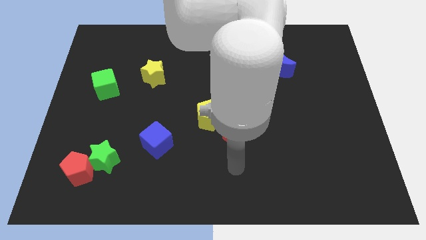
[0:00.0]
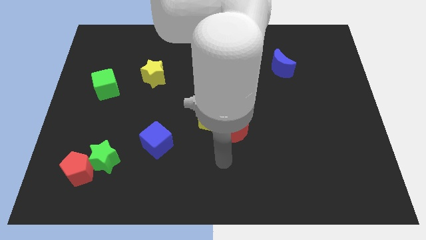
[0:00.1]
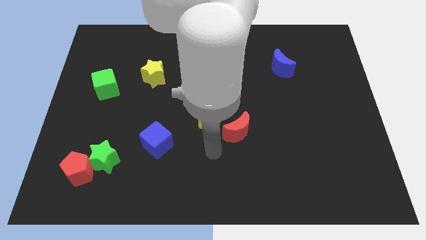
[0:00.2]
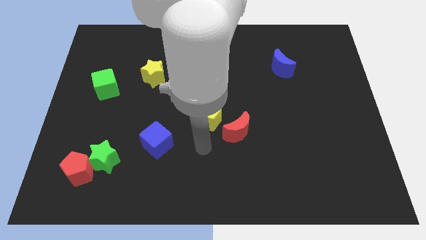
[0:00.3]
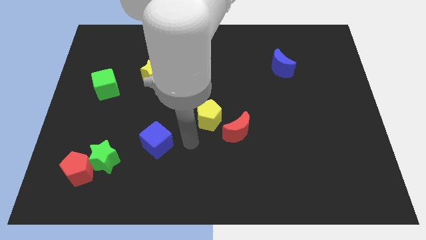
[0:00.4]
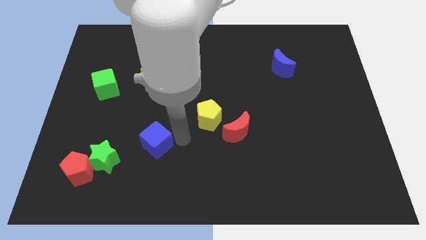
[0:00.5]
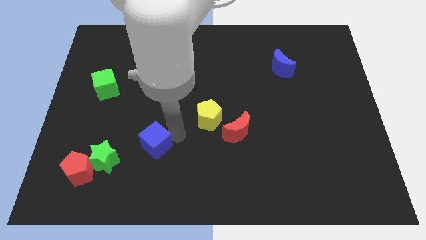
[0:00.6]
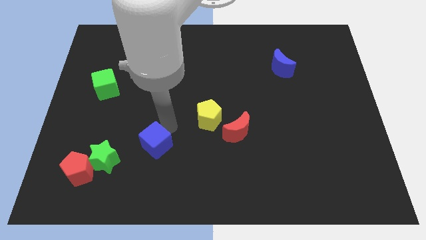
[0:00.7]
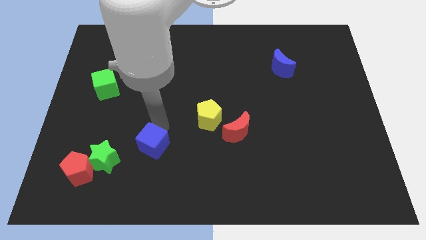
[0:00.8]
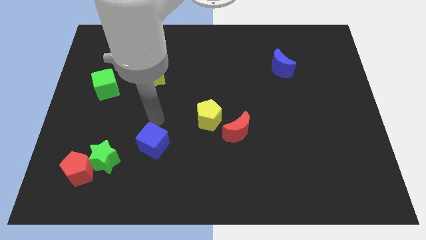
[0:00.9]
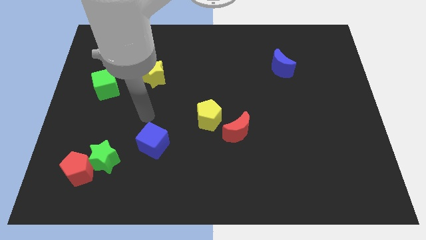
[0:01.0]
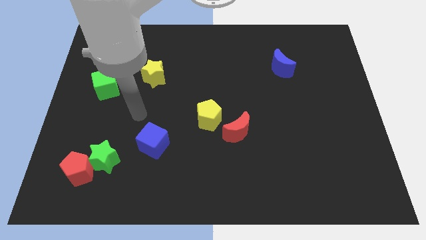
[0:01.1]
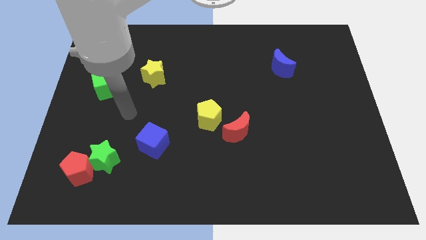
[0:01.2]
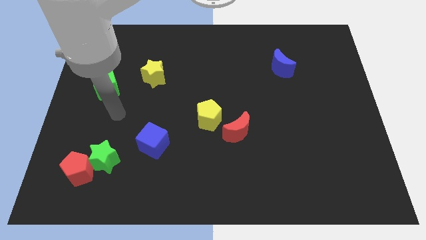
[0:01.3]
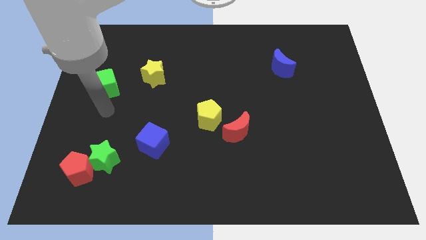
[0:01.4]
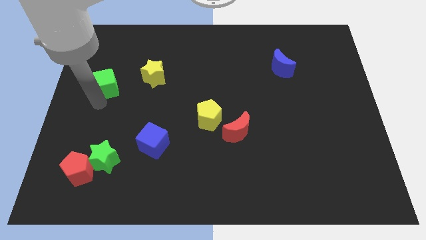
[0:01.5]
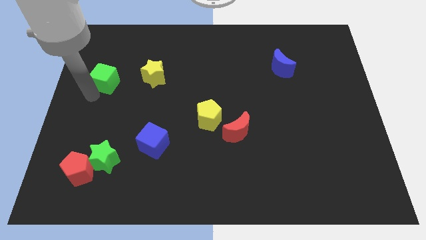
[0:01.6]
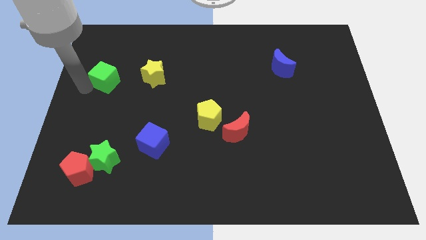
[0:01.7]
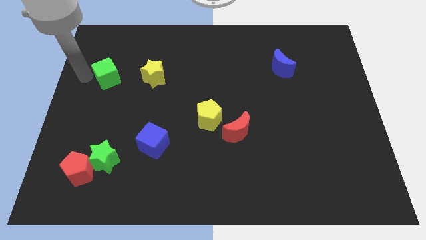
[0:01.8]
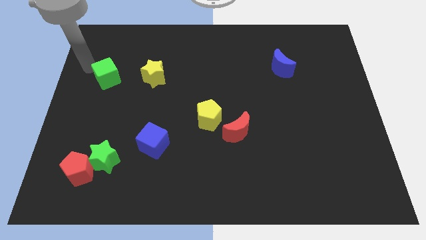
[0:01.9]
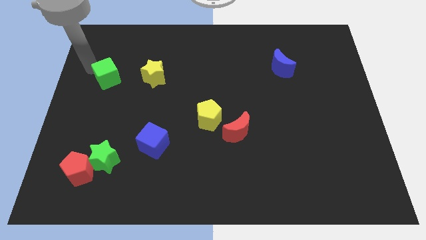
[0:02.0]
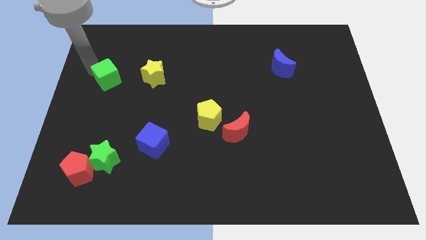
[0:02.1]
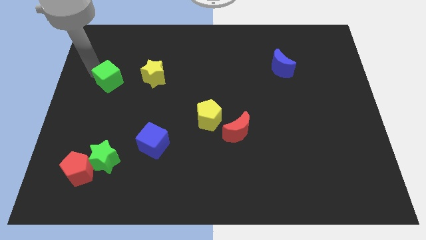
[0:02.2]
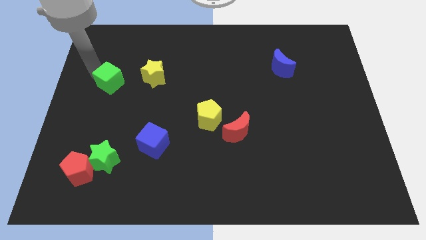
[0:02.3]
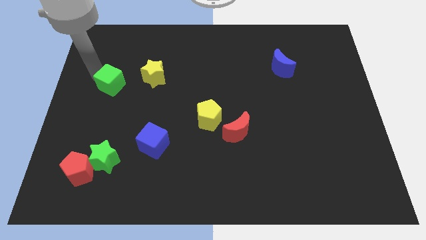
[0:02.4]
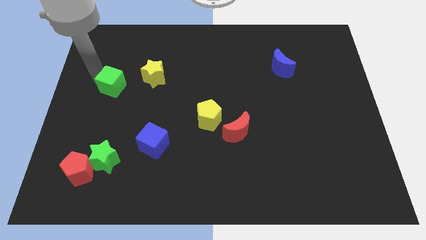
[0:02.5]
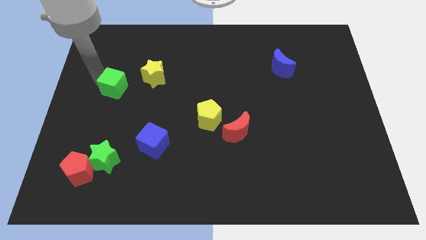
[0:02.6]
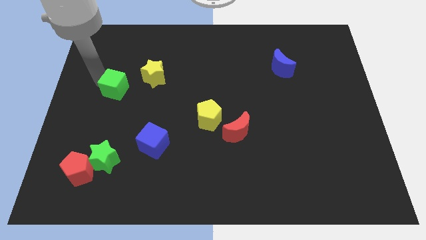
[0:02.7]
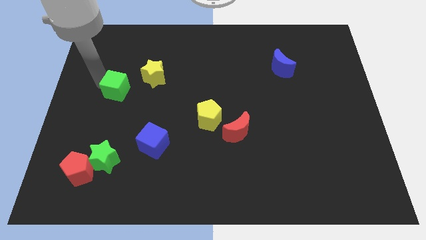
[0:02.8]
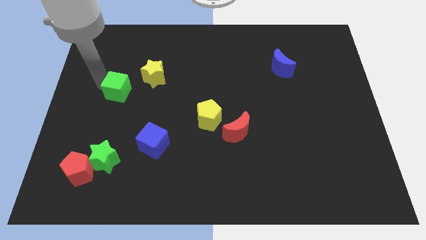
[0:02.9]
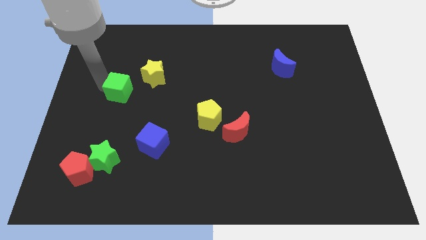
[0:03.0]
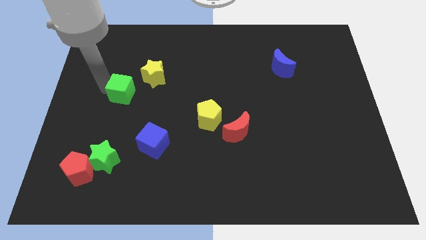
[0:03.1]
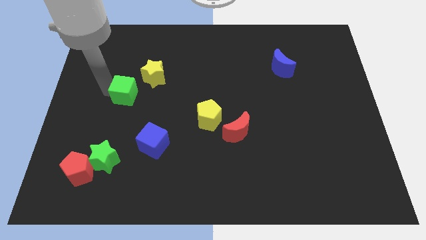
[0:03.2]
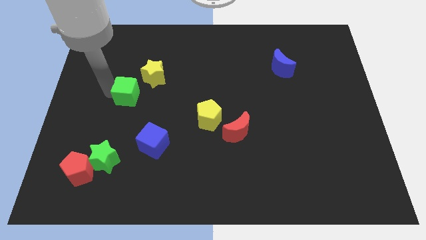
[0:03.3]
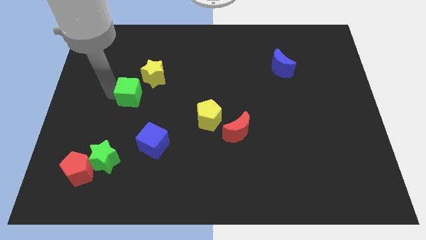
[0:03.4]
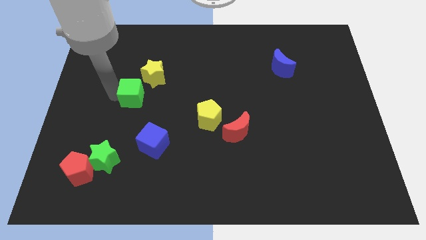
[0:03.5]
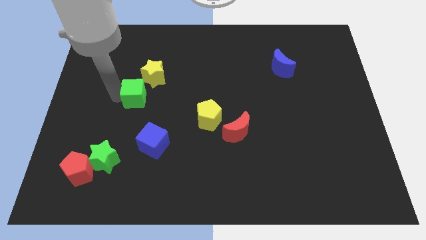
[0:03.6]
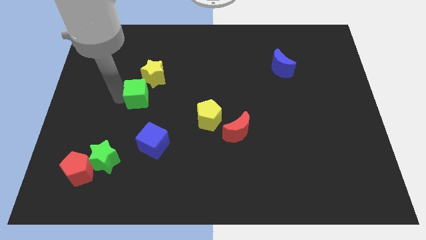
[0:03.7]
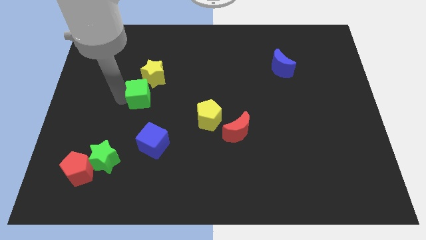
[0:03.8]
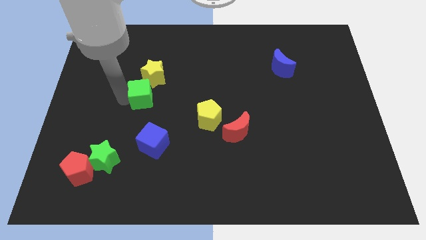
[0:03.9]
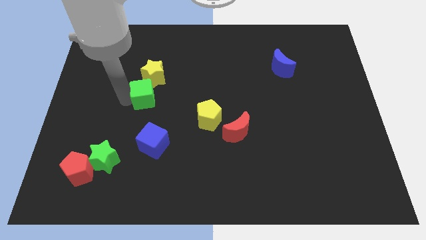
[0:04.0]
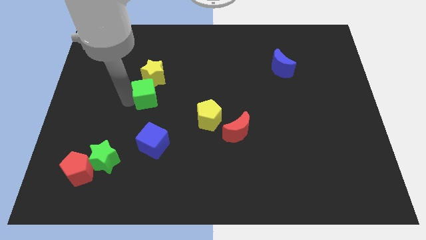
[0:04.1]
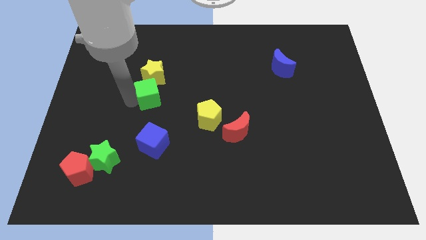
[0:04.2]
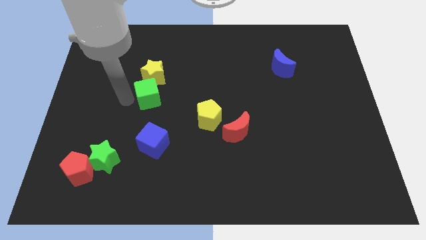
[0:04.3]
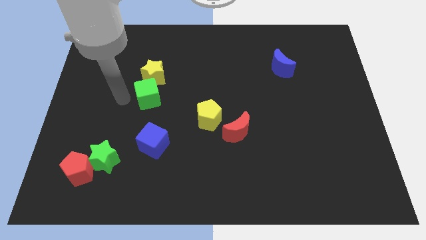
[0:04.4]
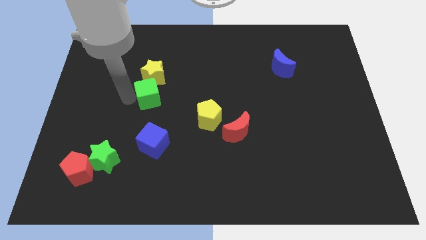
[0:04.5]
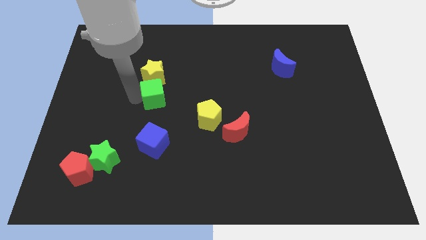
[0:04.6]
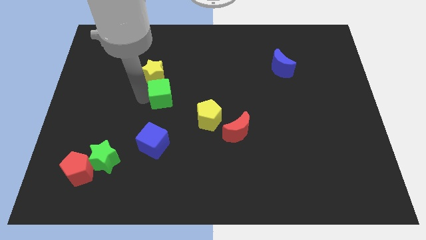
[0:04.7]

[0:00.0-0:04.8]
push the green cube to the center of the board

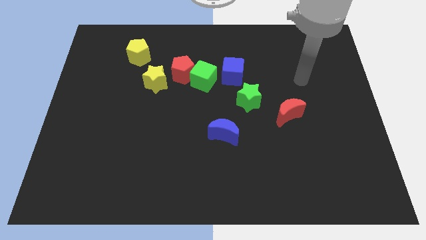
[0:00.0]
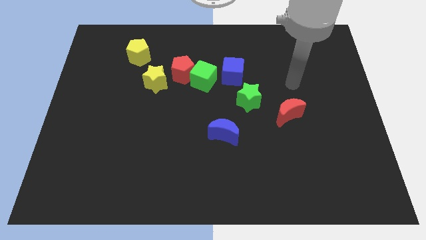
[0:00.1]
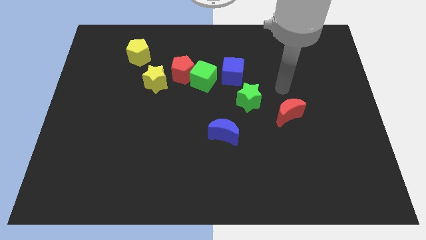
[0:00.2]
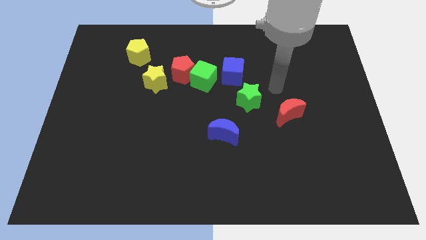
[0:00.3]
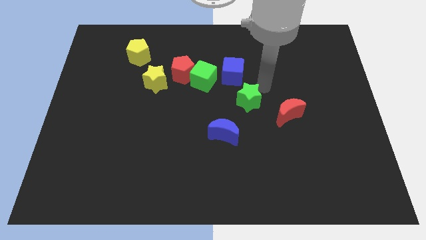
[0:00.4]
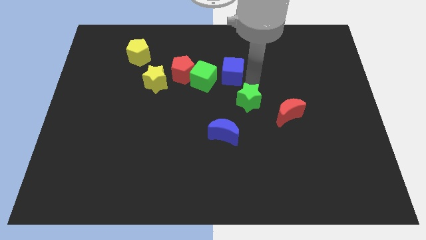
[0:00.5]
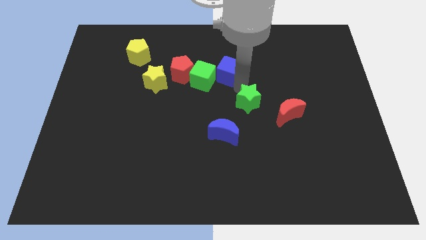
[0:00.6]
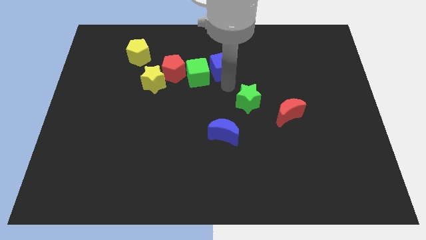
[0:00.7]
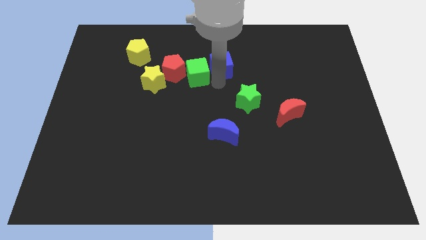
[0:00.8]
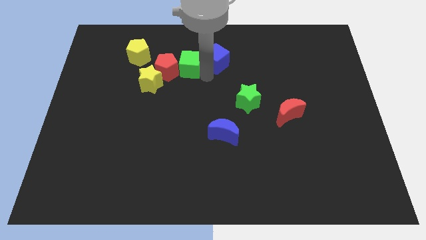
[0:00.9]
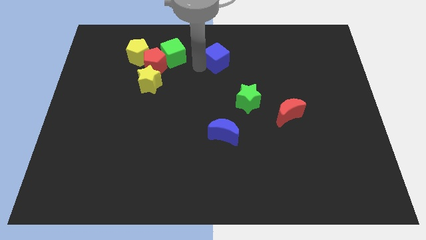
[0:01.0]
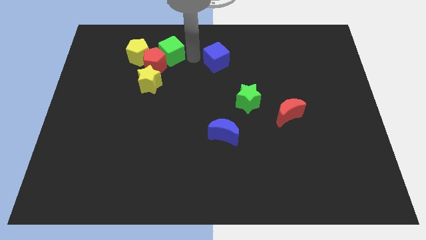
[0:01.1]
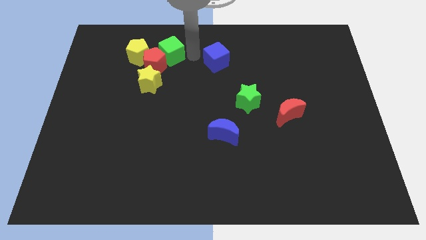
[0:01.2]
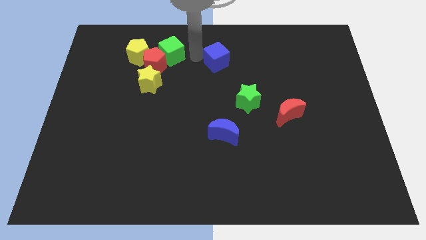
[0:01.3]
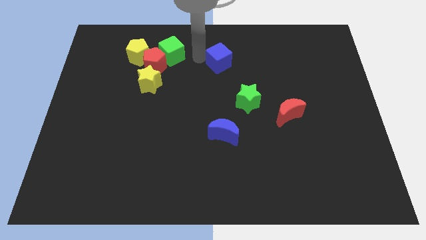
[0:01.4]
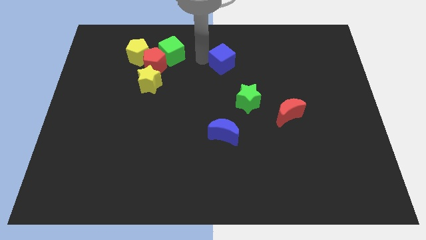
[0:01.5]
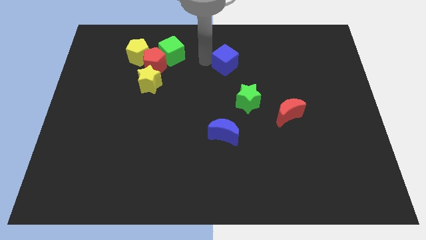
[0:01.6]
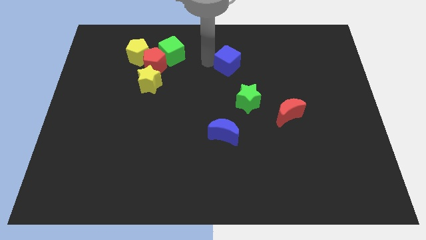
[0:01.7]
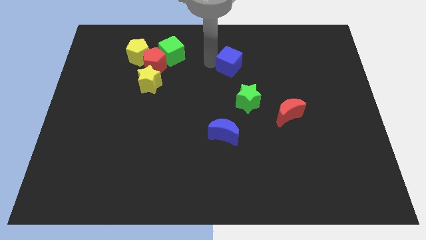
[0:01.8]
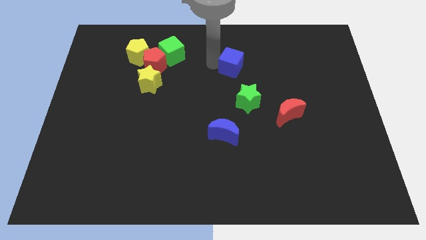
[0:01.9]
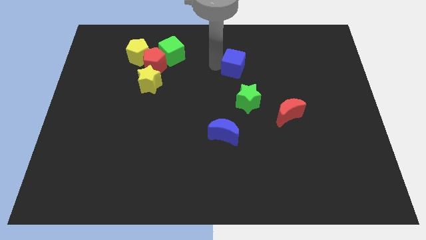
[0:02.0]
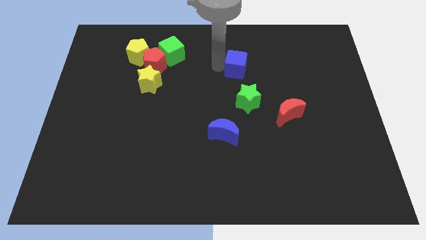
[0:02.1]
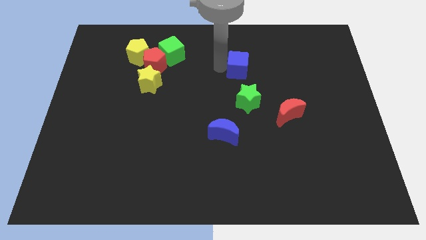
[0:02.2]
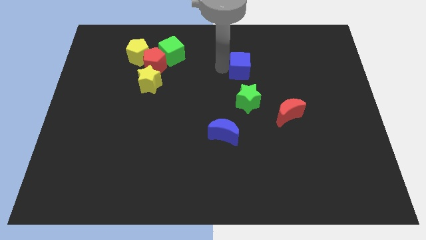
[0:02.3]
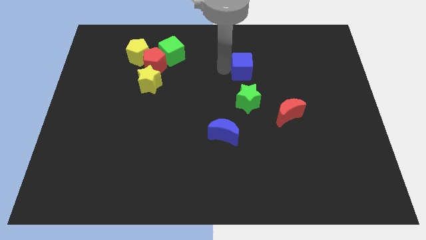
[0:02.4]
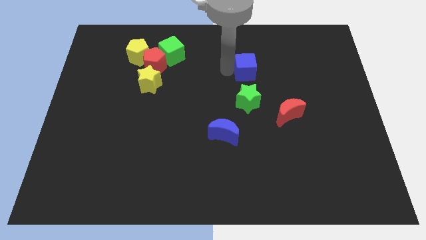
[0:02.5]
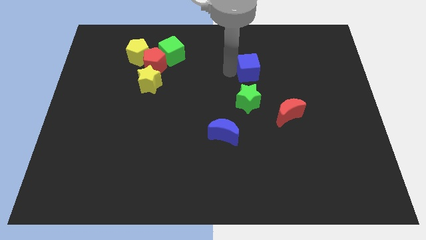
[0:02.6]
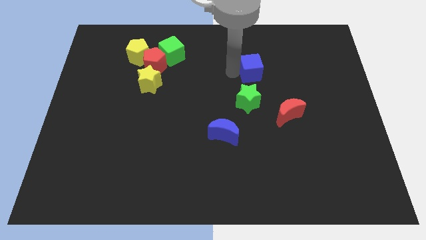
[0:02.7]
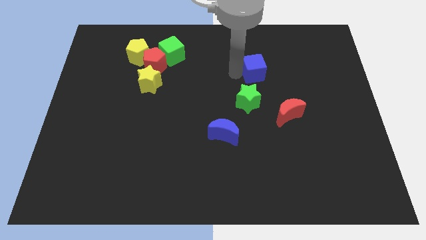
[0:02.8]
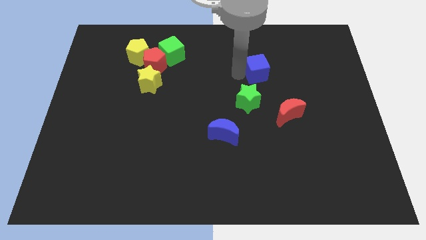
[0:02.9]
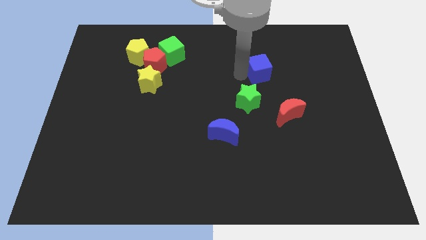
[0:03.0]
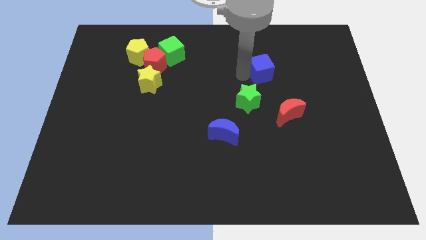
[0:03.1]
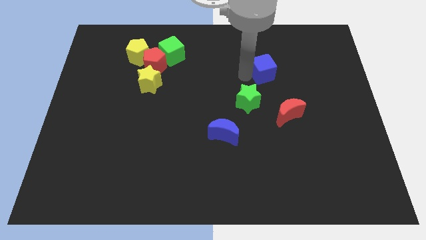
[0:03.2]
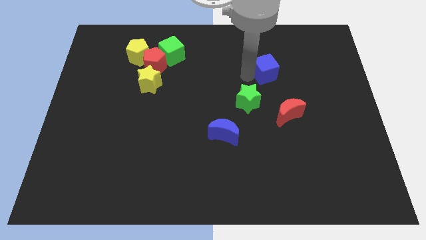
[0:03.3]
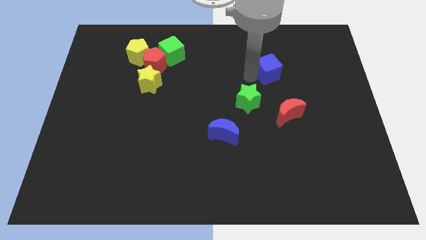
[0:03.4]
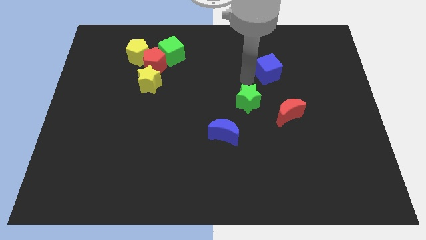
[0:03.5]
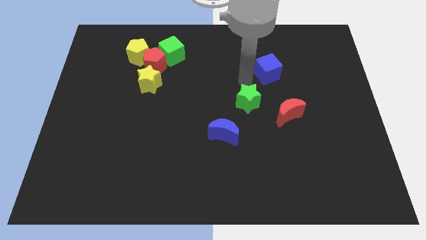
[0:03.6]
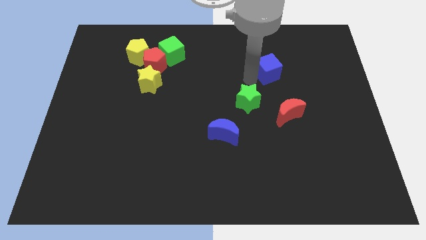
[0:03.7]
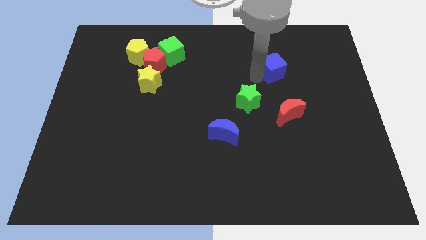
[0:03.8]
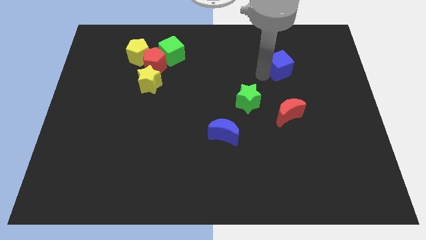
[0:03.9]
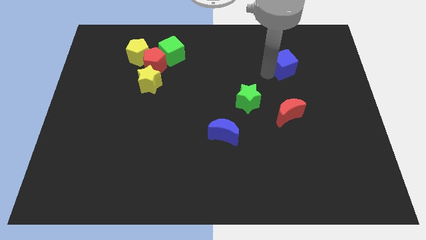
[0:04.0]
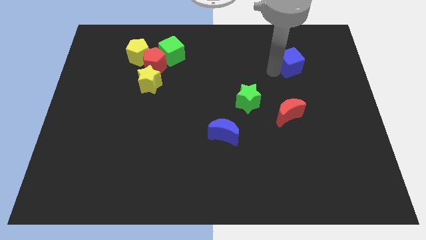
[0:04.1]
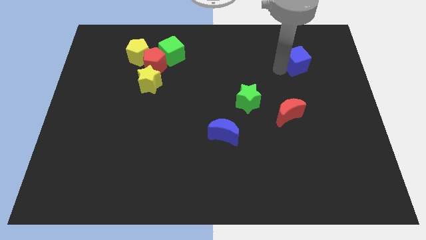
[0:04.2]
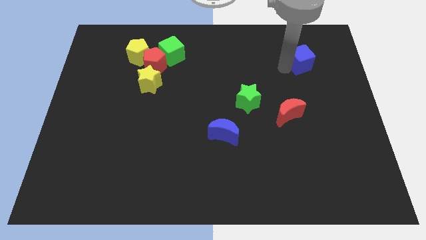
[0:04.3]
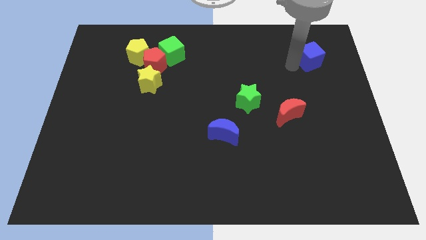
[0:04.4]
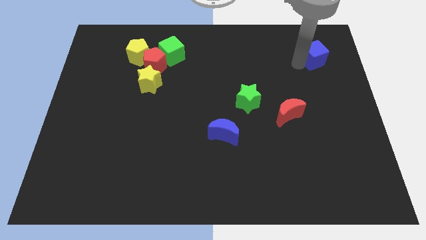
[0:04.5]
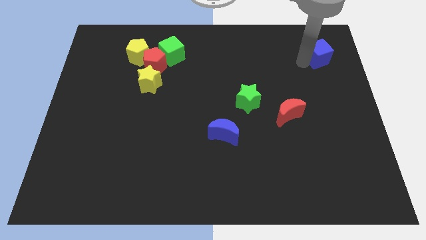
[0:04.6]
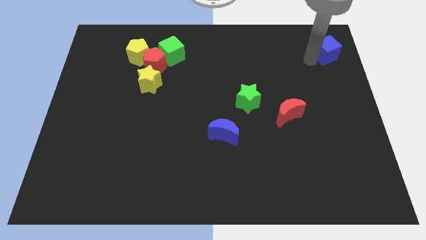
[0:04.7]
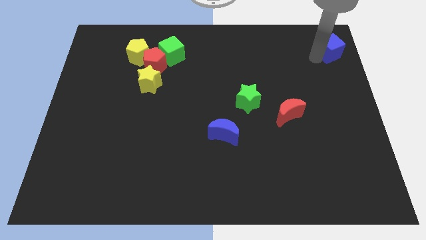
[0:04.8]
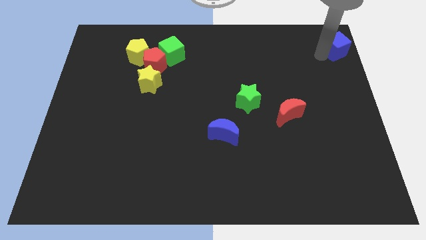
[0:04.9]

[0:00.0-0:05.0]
slide the blue cube to the upper right corner
